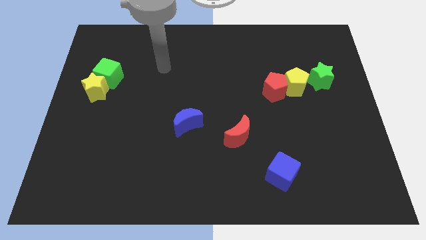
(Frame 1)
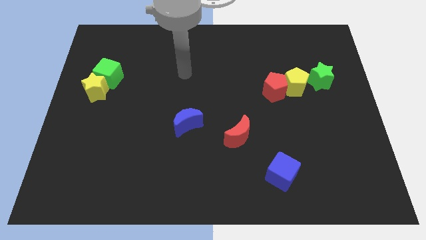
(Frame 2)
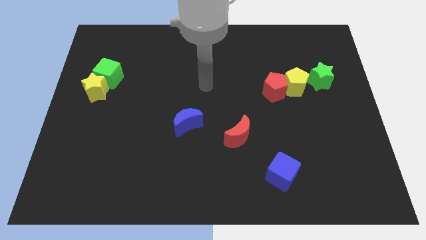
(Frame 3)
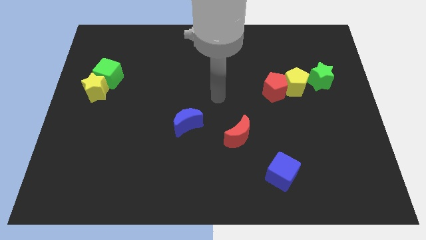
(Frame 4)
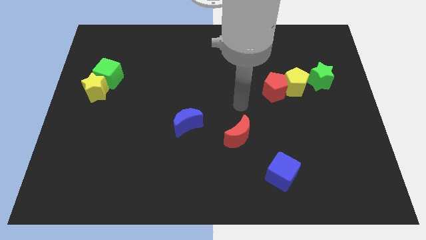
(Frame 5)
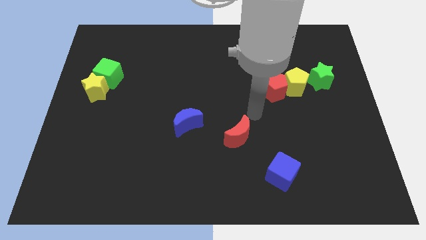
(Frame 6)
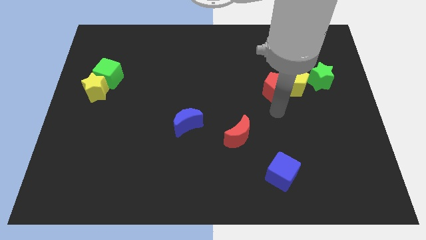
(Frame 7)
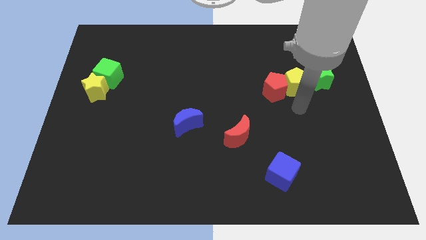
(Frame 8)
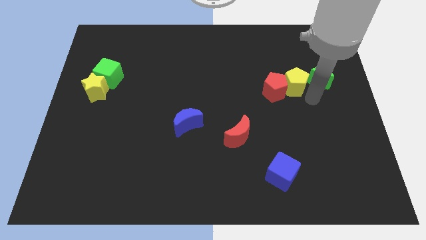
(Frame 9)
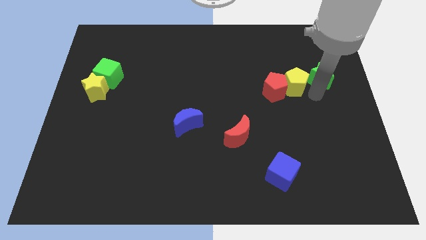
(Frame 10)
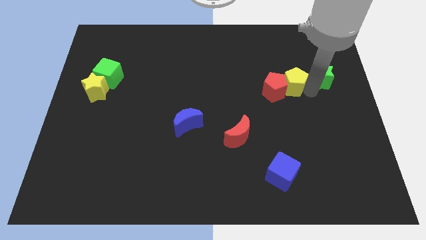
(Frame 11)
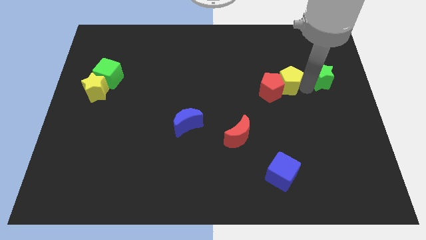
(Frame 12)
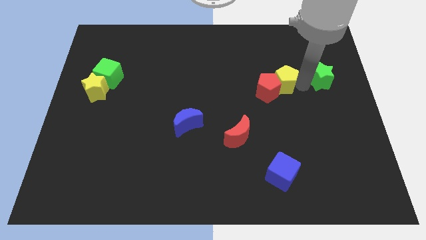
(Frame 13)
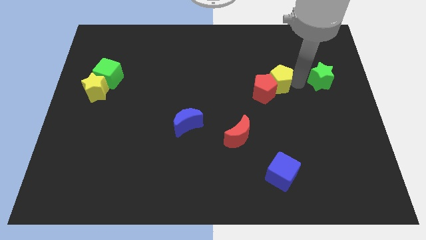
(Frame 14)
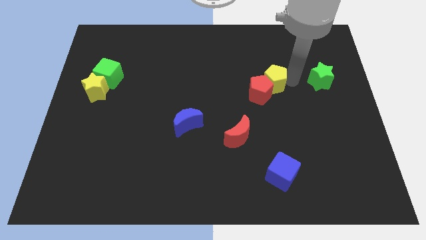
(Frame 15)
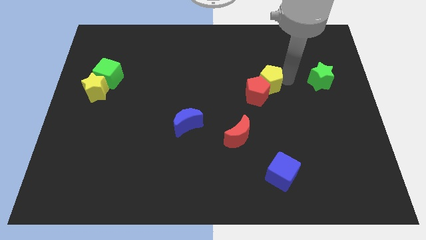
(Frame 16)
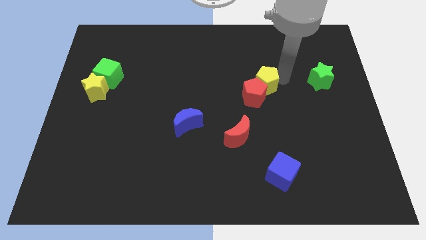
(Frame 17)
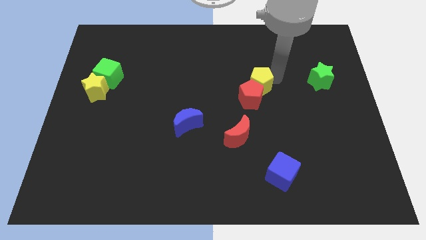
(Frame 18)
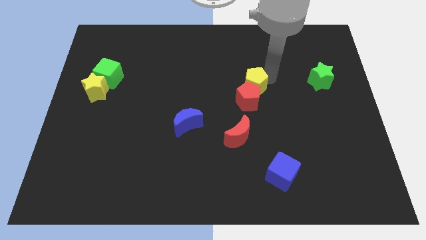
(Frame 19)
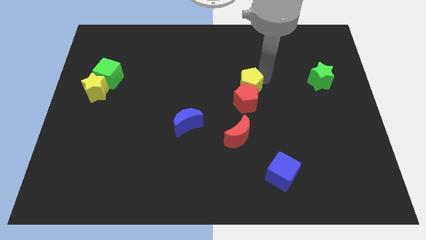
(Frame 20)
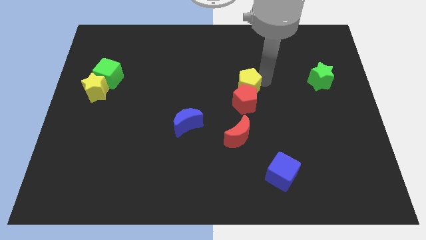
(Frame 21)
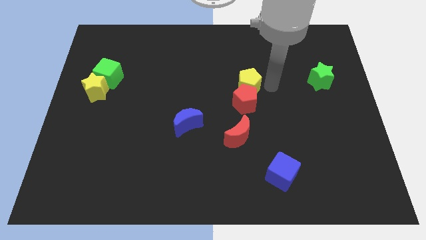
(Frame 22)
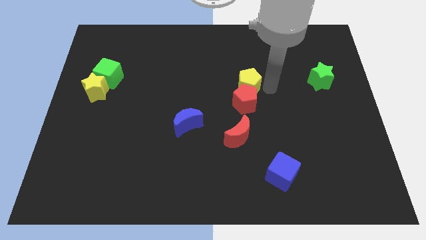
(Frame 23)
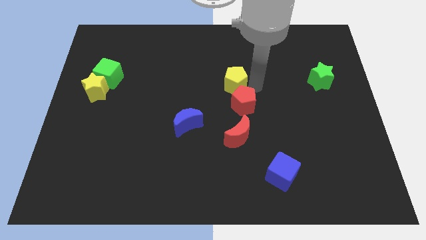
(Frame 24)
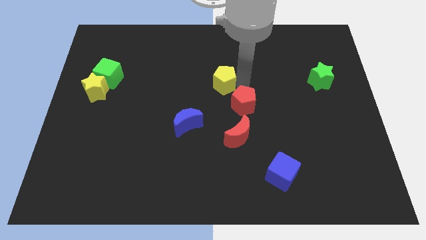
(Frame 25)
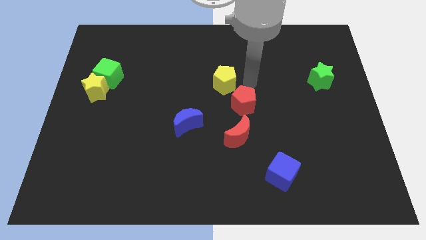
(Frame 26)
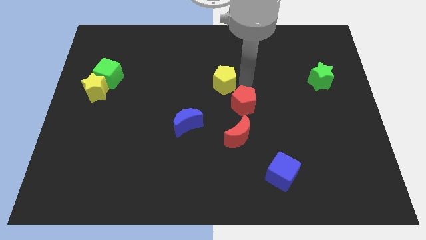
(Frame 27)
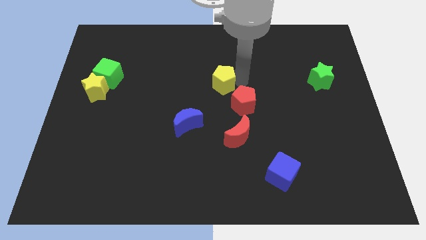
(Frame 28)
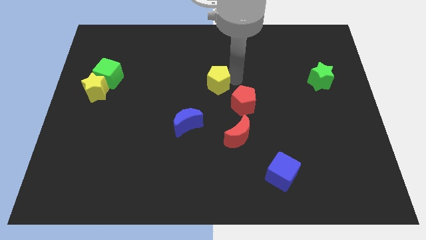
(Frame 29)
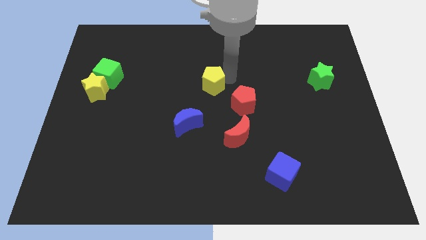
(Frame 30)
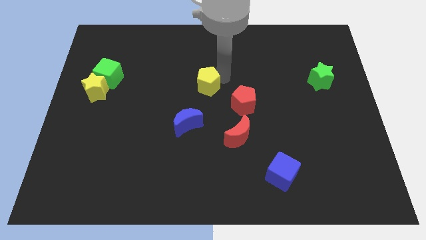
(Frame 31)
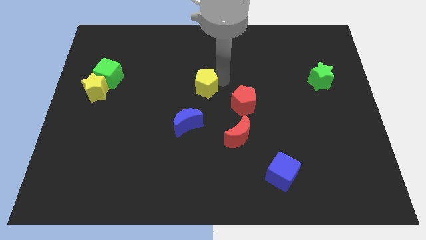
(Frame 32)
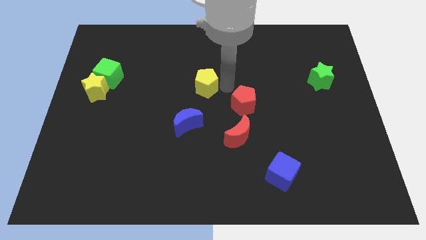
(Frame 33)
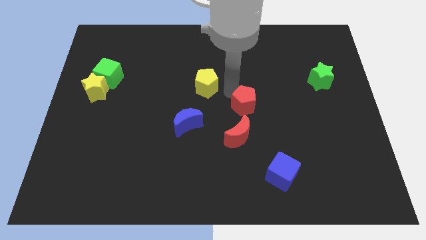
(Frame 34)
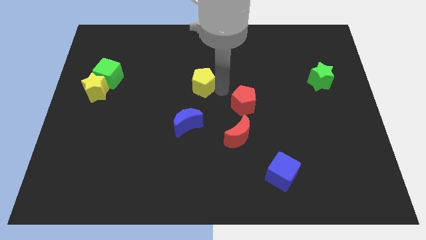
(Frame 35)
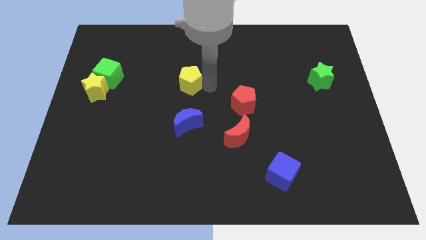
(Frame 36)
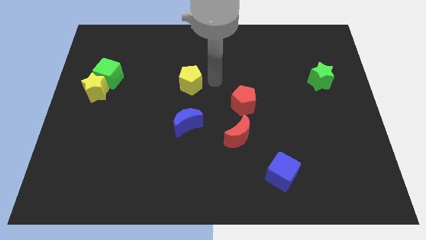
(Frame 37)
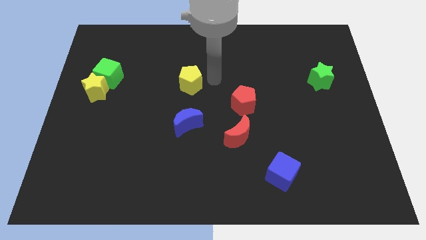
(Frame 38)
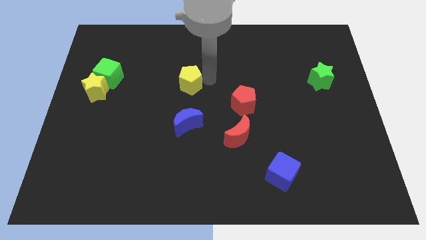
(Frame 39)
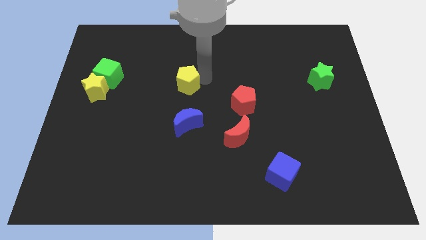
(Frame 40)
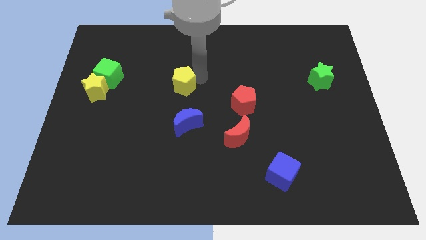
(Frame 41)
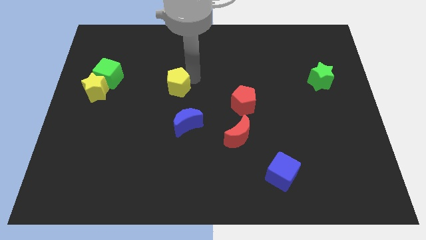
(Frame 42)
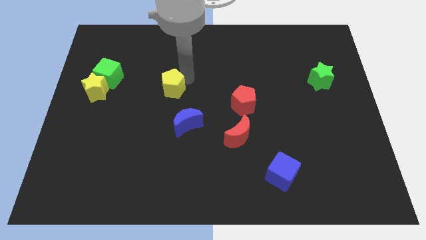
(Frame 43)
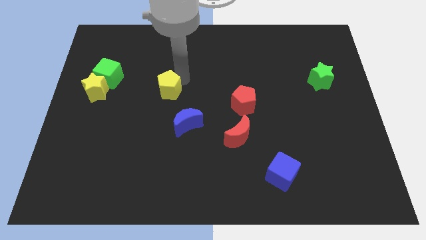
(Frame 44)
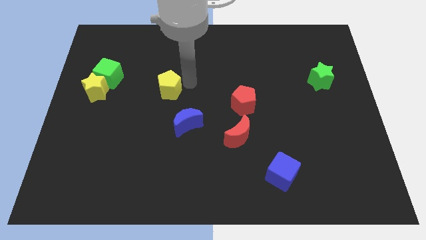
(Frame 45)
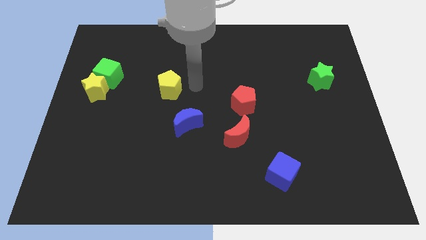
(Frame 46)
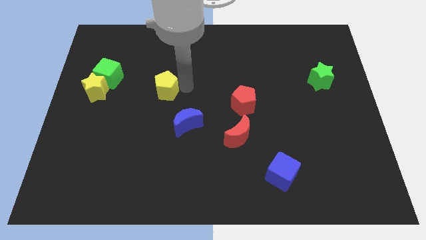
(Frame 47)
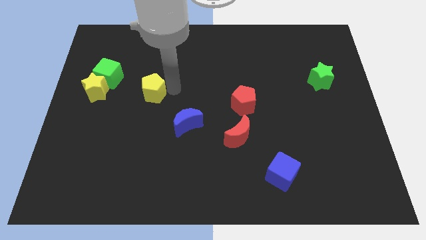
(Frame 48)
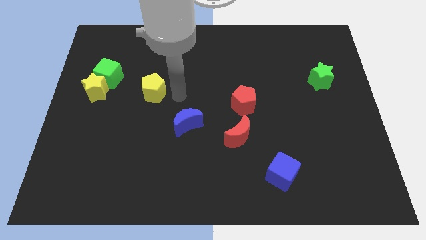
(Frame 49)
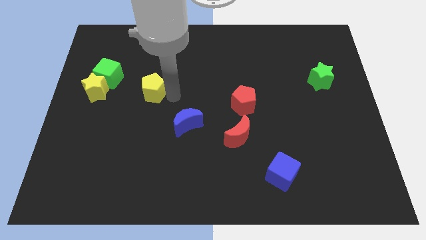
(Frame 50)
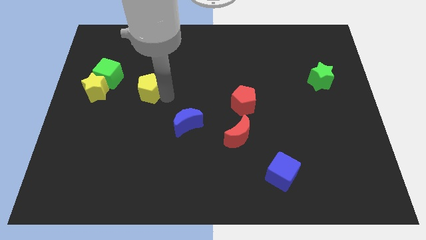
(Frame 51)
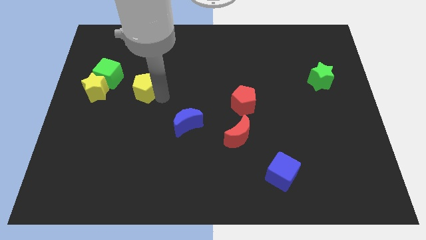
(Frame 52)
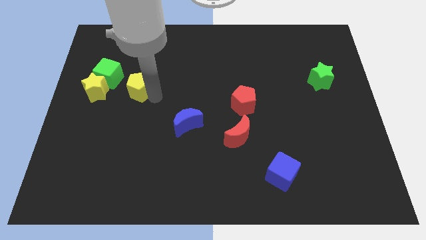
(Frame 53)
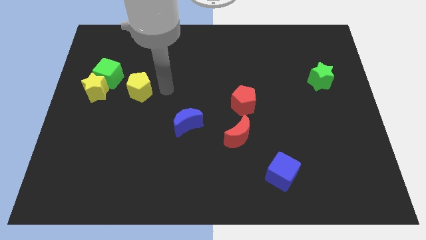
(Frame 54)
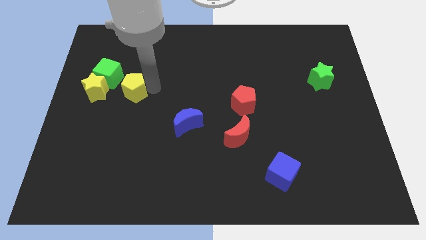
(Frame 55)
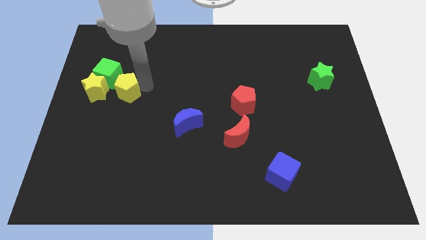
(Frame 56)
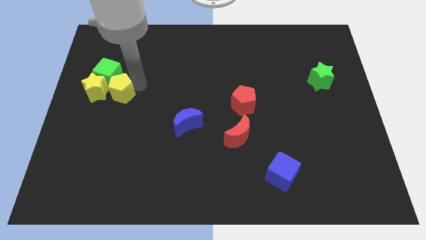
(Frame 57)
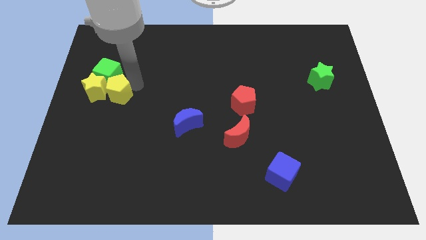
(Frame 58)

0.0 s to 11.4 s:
move the yellow pentagon close to the yellow star

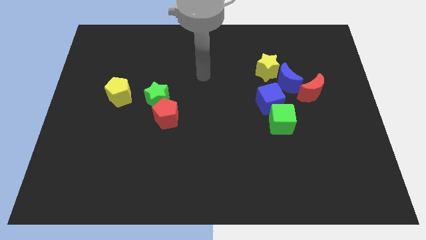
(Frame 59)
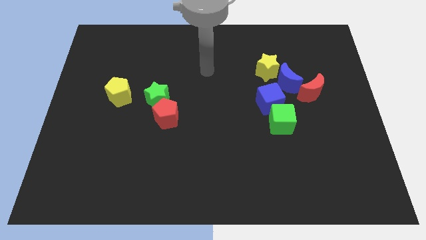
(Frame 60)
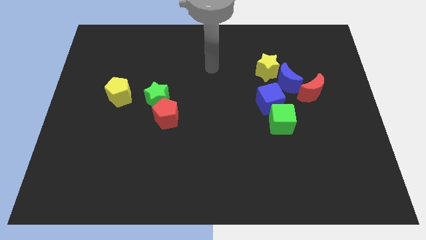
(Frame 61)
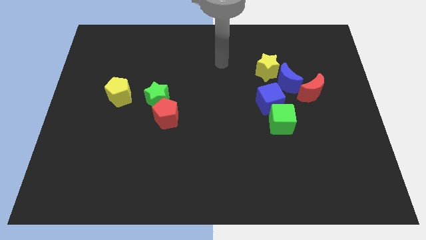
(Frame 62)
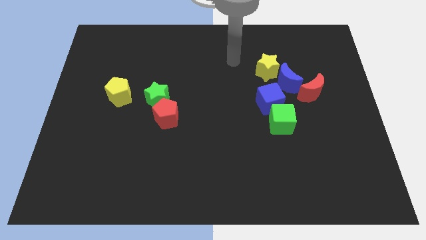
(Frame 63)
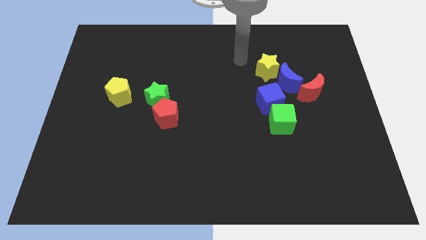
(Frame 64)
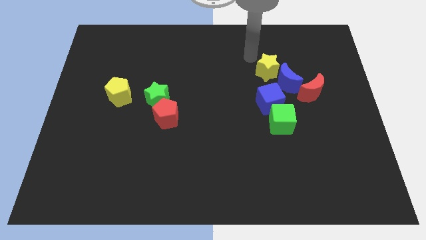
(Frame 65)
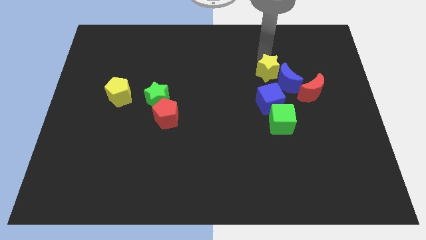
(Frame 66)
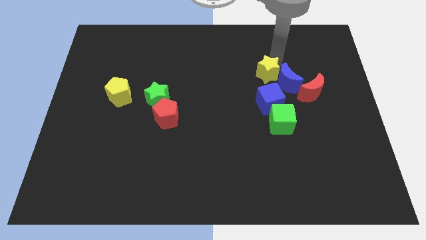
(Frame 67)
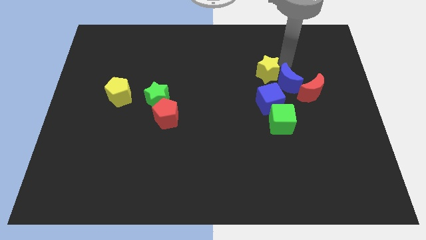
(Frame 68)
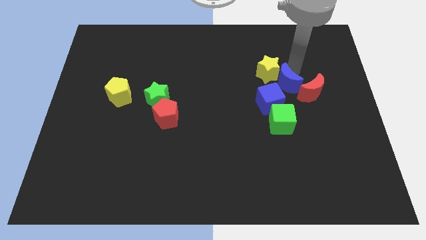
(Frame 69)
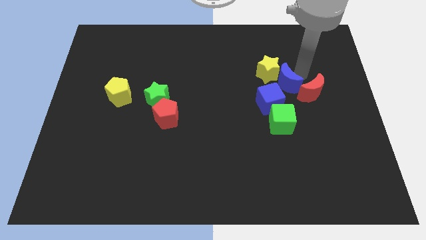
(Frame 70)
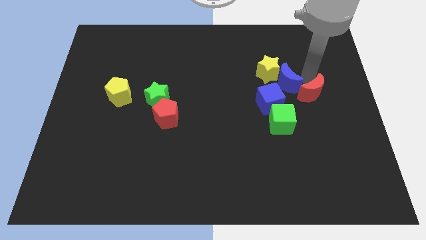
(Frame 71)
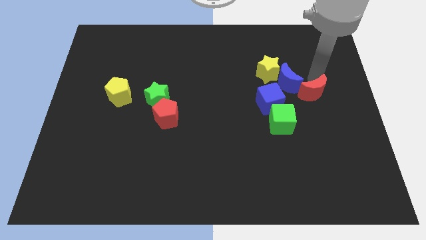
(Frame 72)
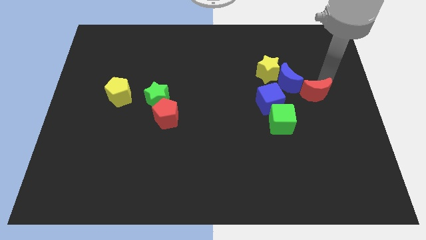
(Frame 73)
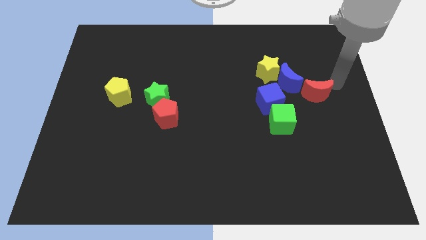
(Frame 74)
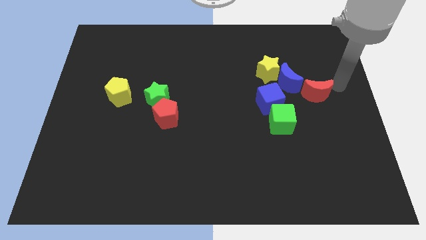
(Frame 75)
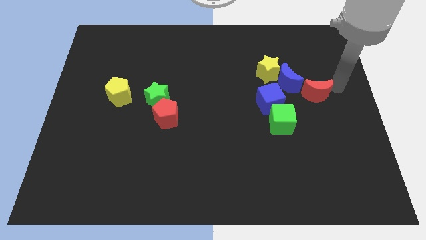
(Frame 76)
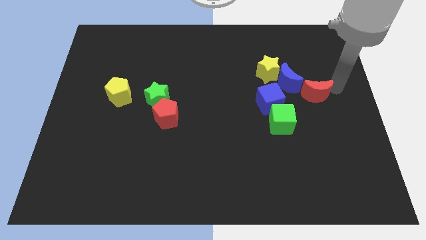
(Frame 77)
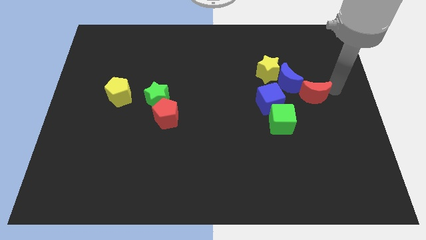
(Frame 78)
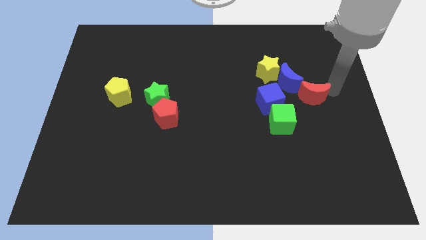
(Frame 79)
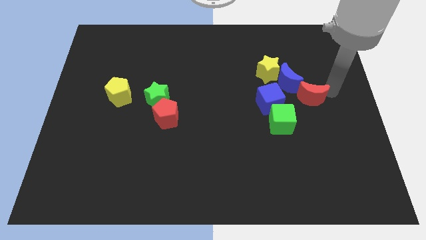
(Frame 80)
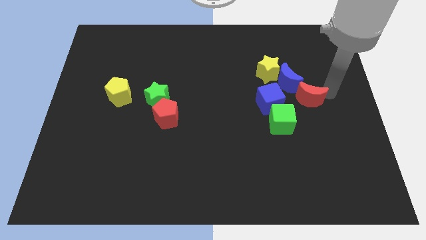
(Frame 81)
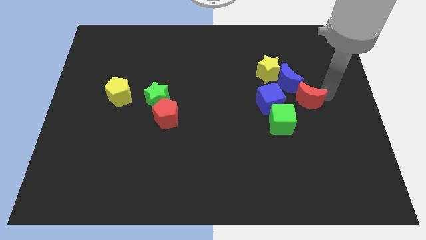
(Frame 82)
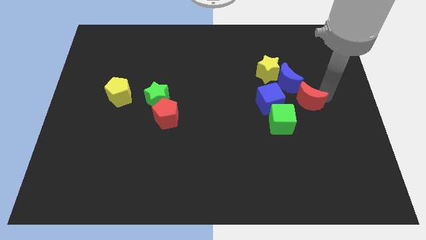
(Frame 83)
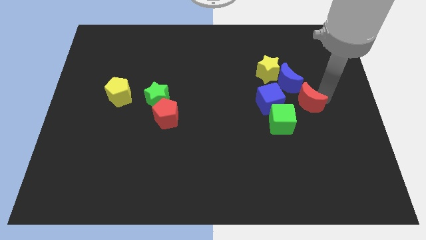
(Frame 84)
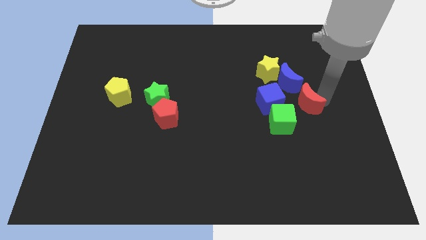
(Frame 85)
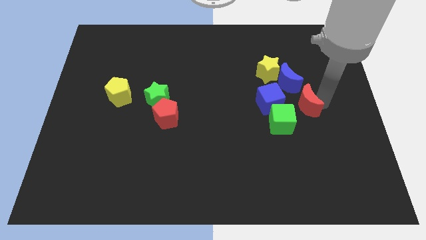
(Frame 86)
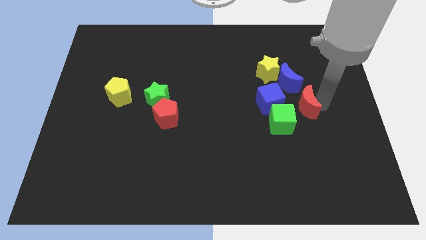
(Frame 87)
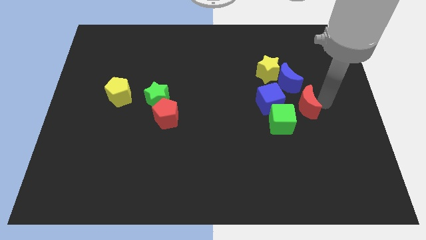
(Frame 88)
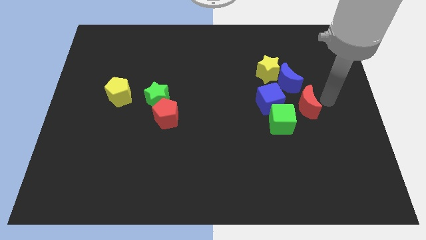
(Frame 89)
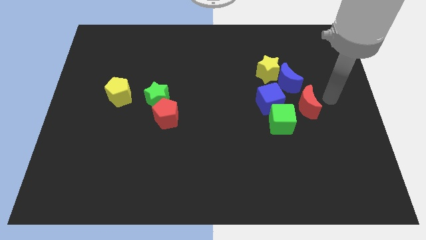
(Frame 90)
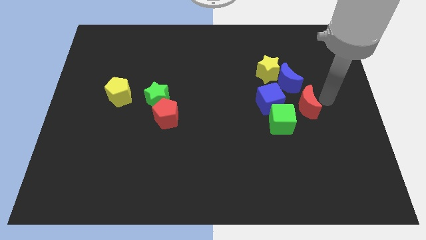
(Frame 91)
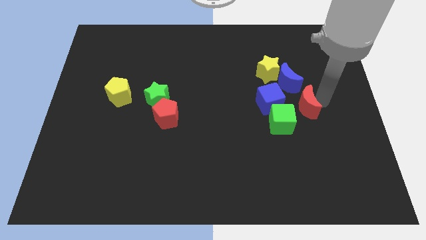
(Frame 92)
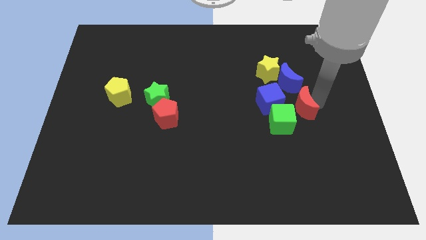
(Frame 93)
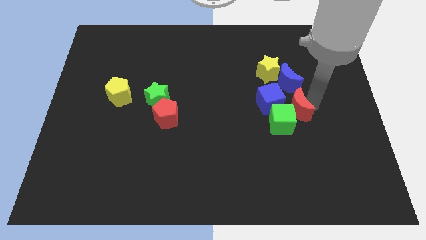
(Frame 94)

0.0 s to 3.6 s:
put the red moon close to the green cube
